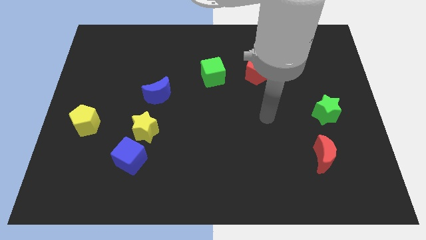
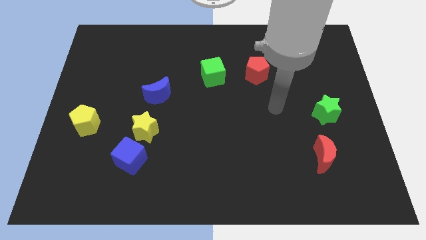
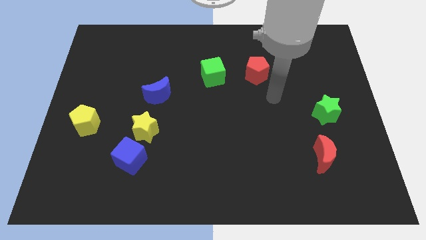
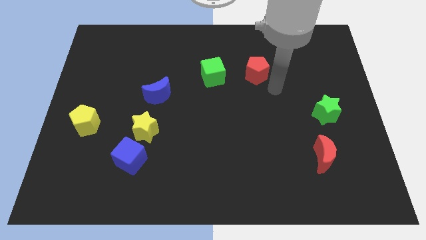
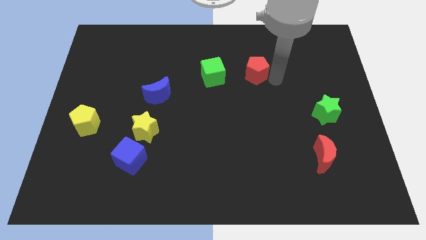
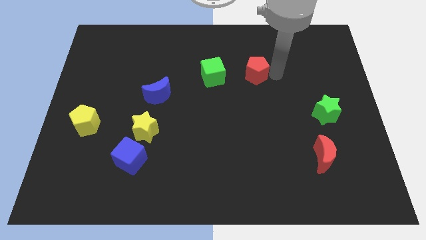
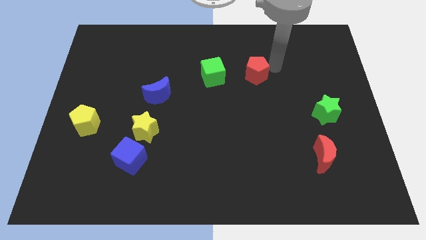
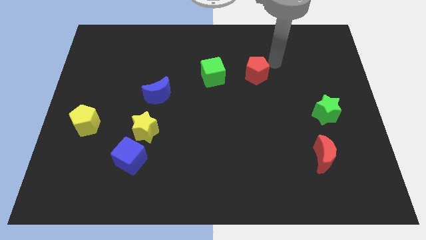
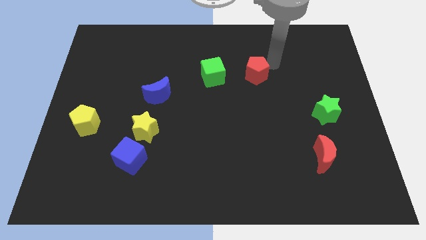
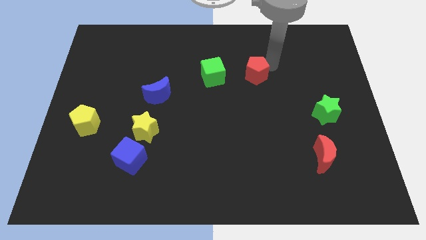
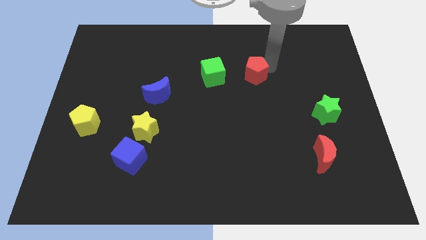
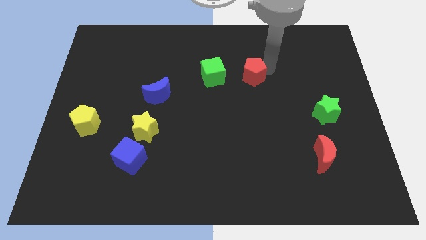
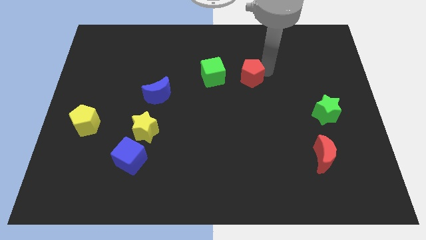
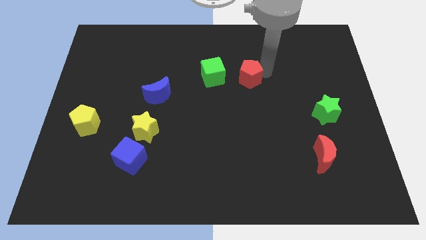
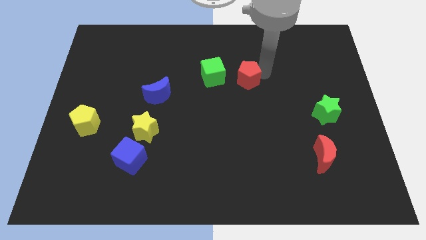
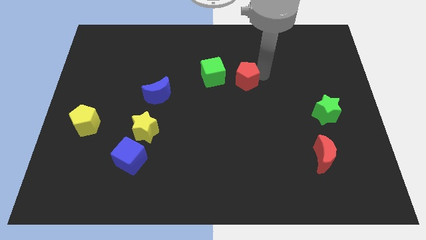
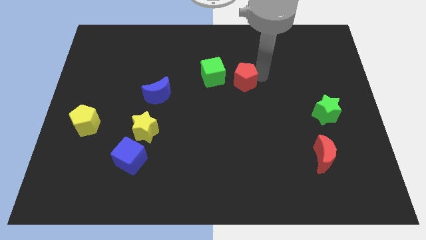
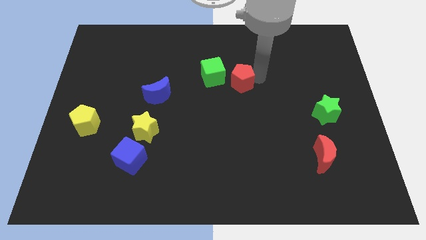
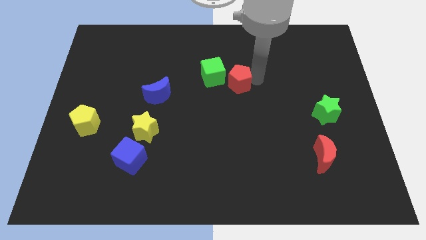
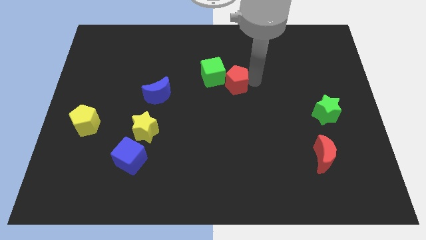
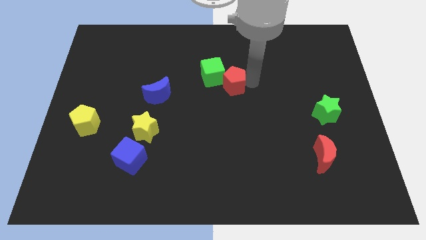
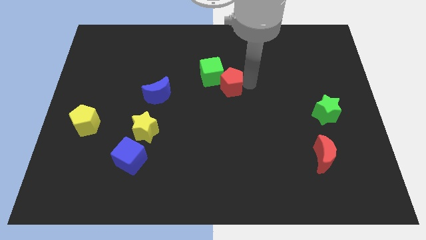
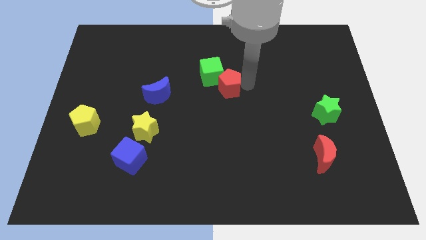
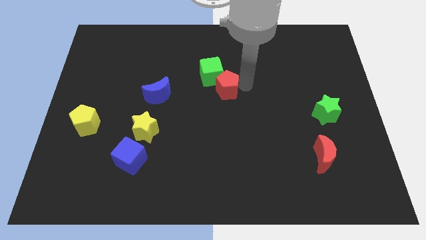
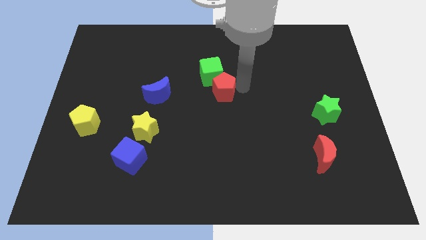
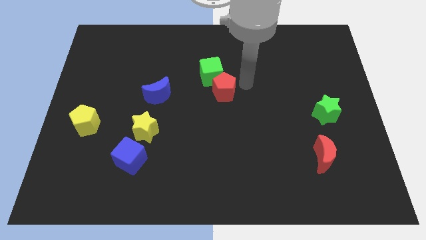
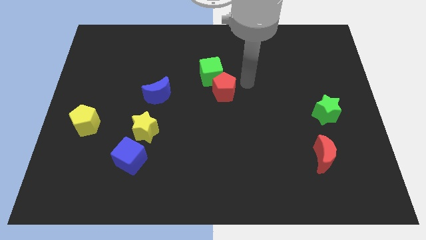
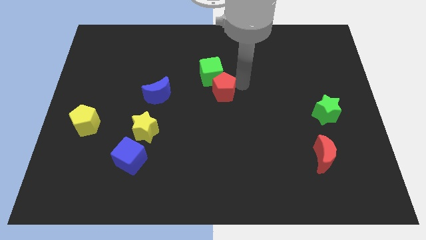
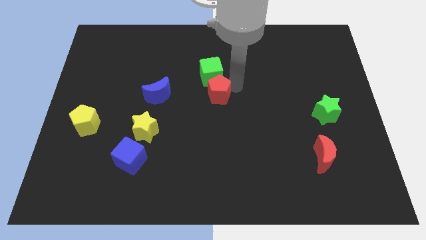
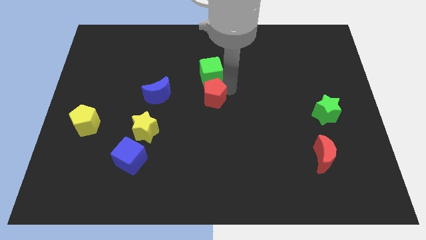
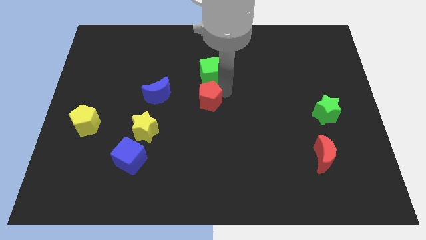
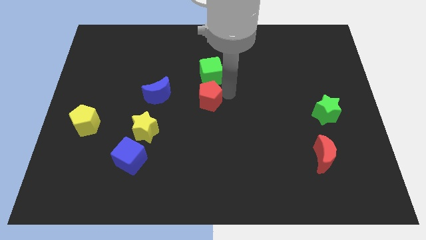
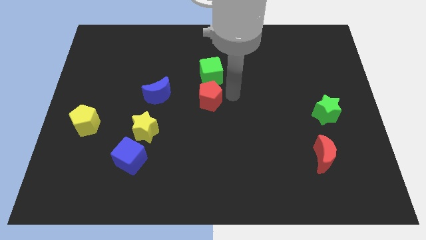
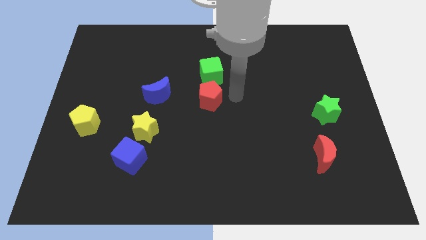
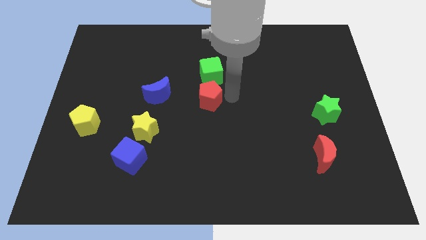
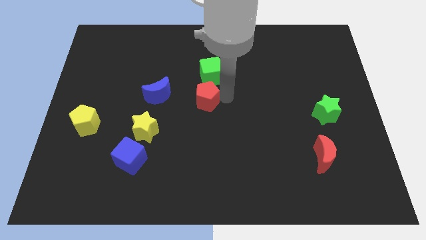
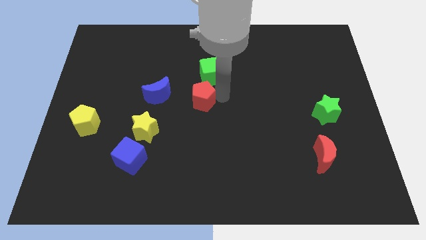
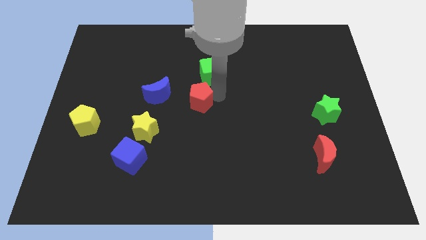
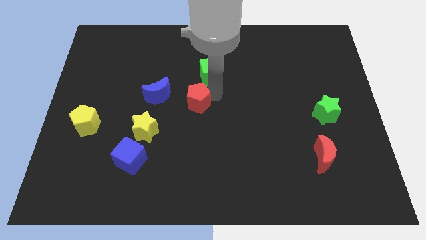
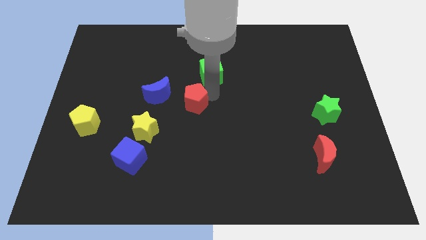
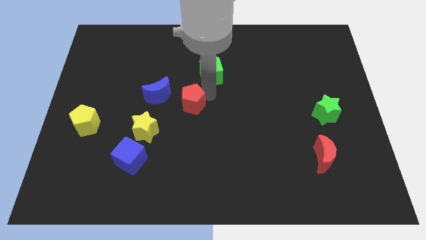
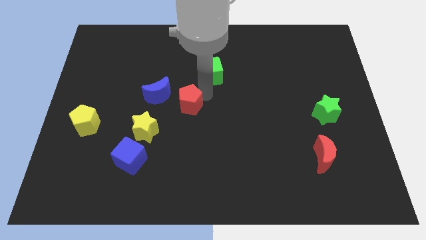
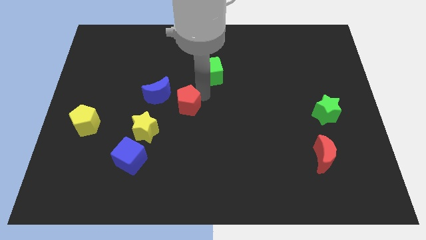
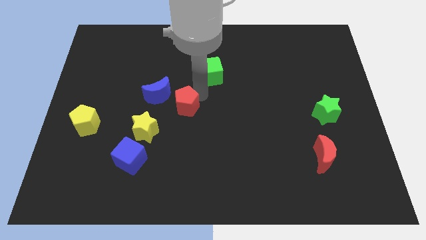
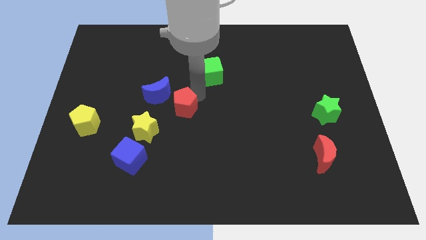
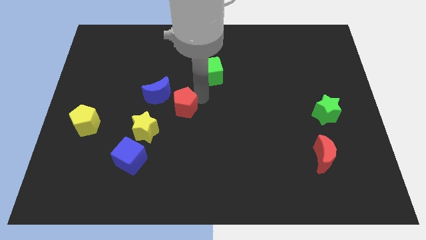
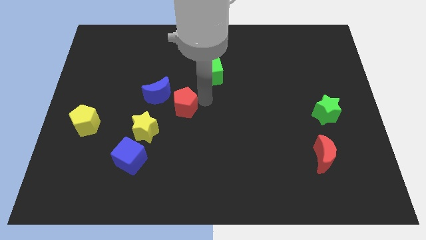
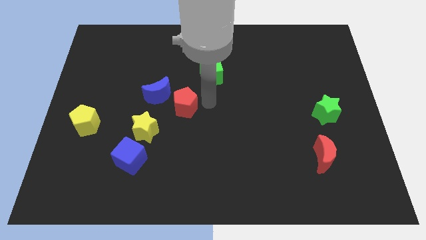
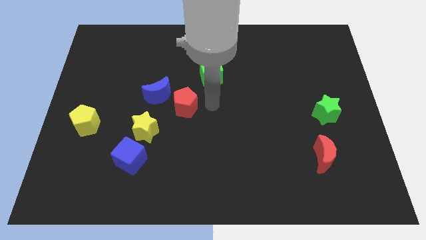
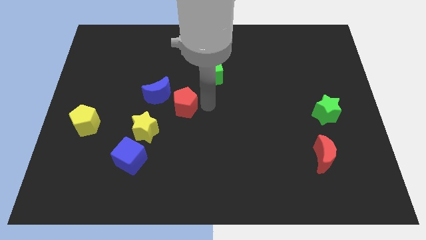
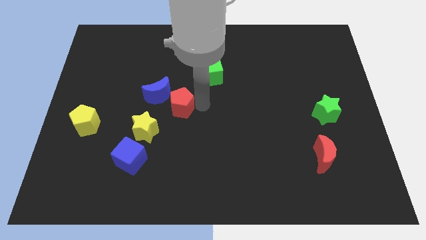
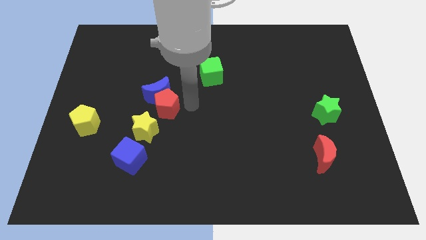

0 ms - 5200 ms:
put the red pentagon to the bottom left side of the blue moon

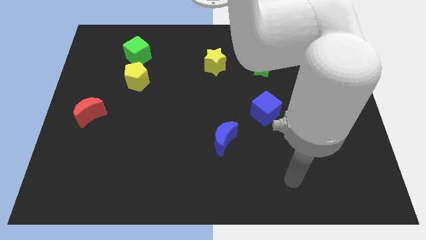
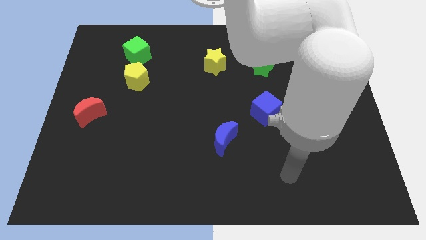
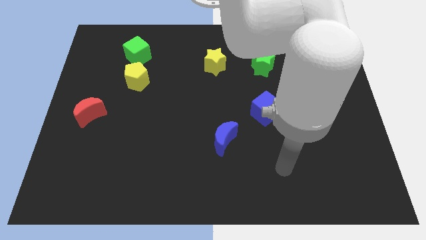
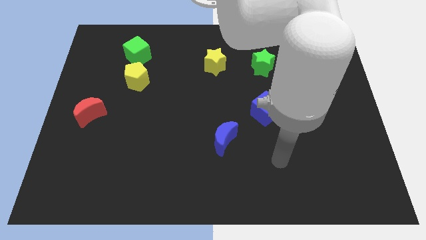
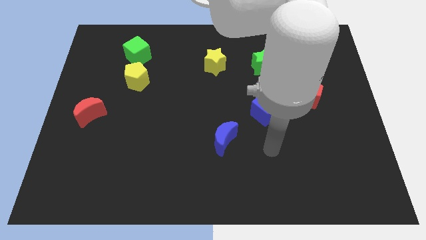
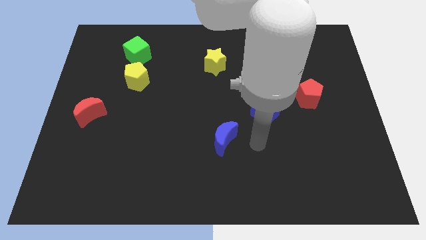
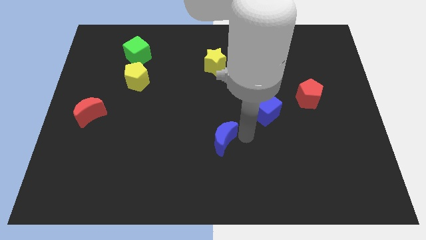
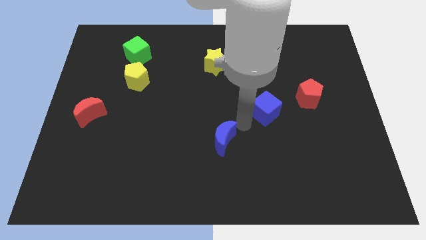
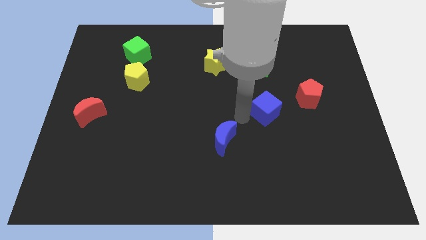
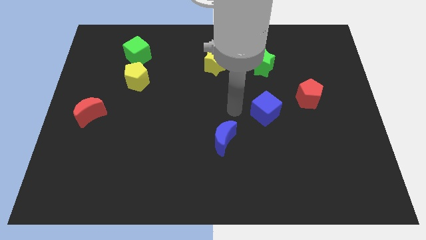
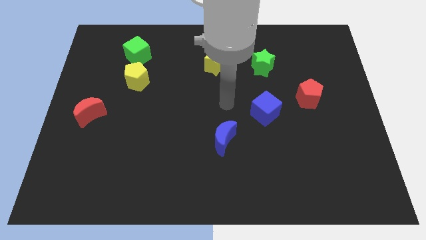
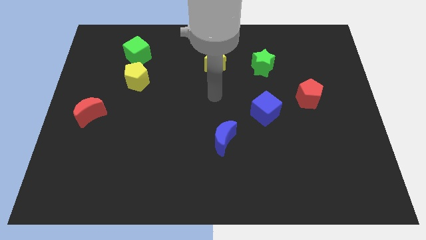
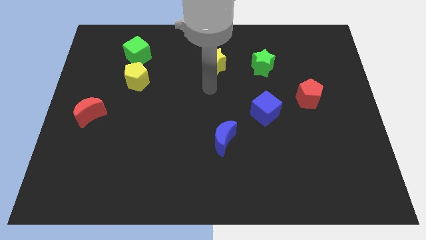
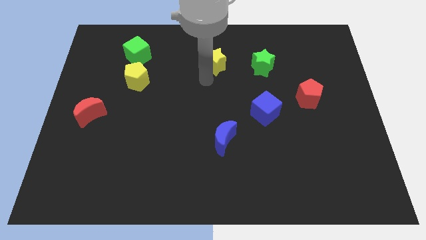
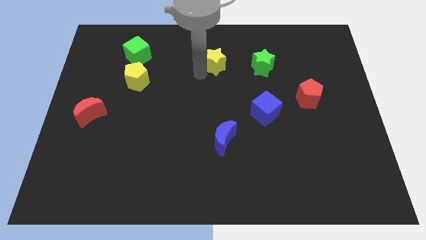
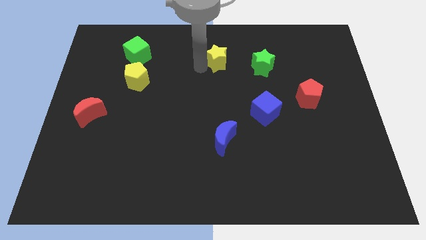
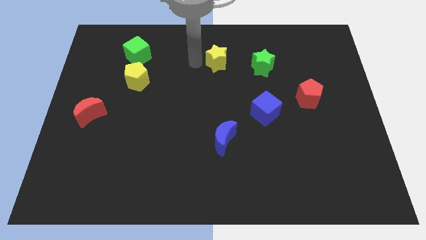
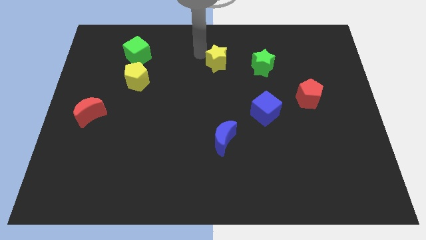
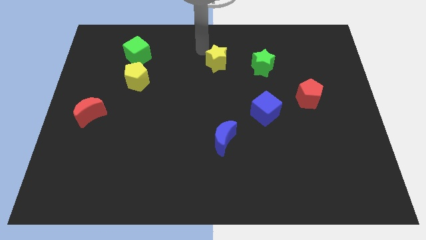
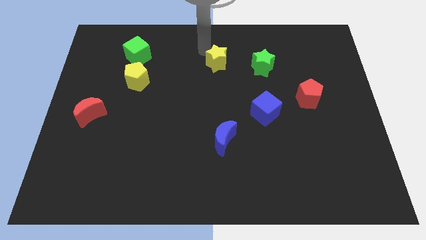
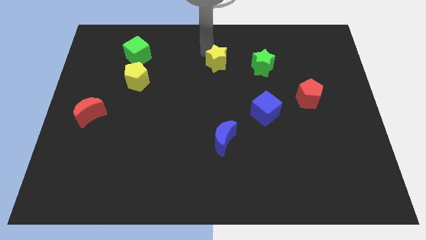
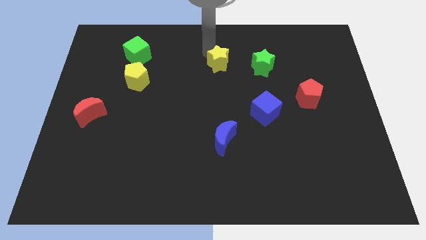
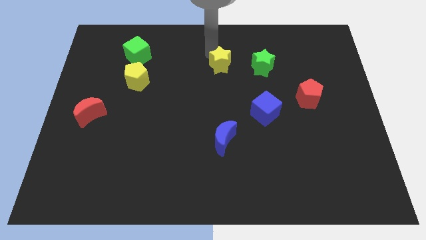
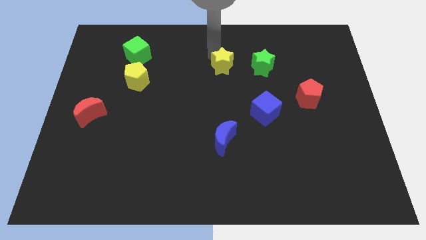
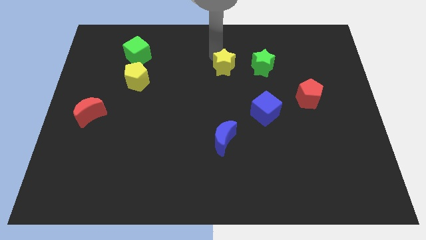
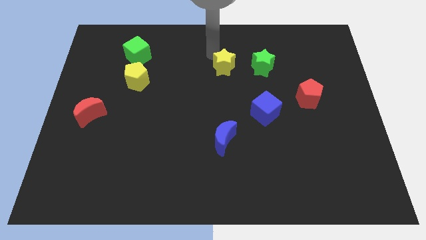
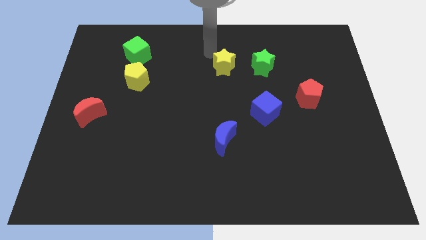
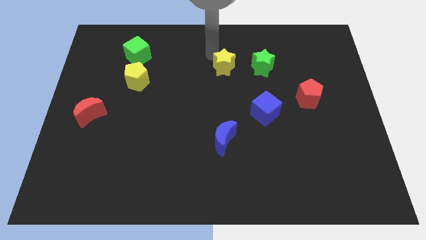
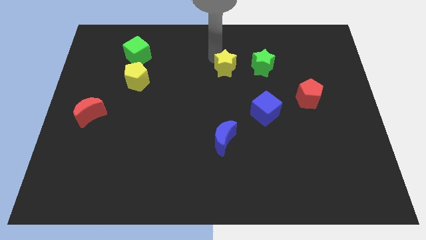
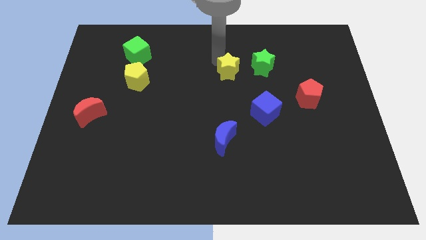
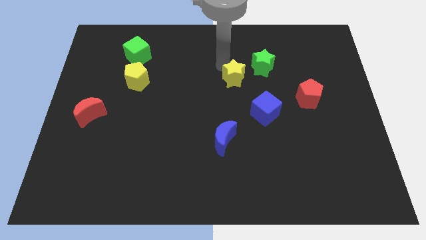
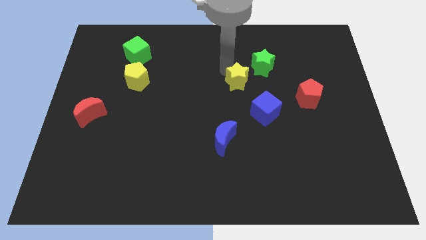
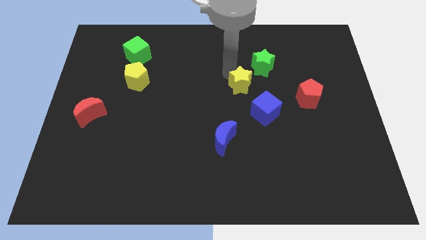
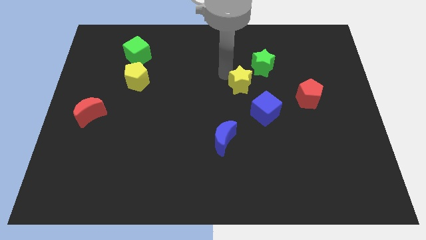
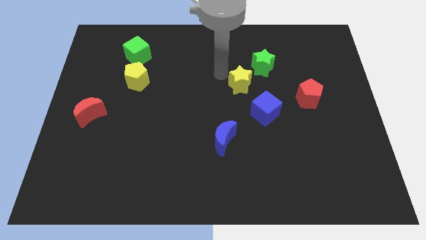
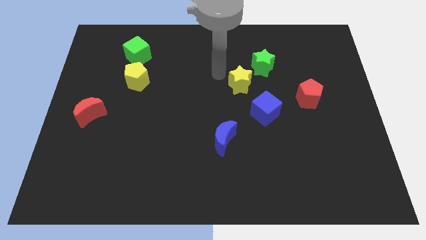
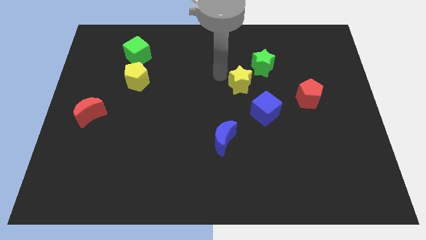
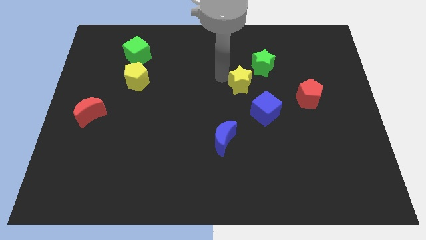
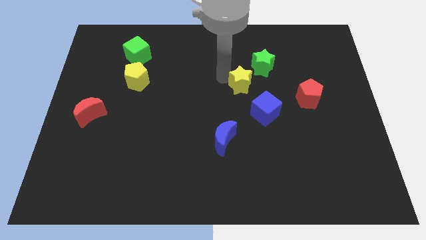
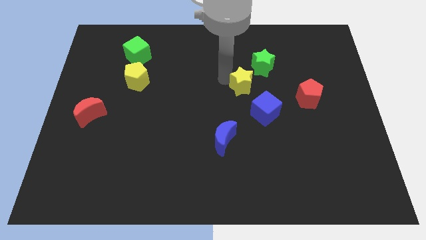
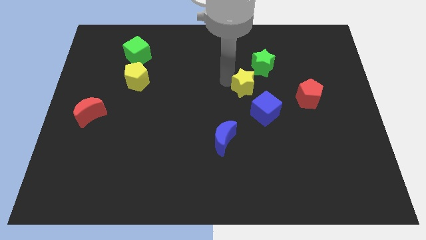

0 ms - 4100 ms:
move the yellow star to the bottom side of the green star
